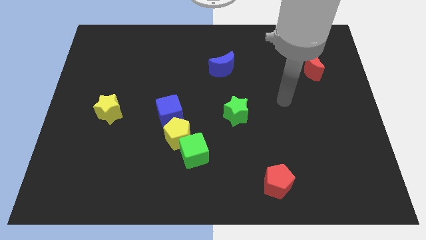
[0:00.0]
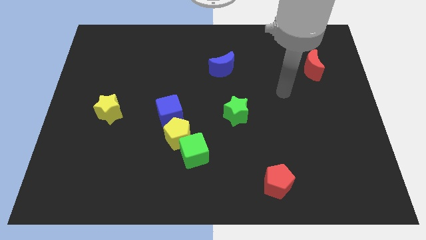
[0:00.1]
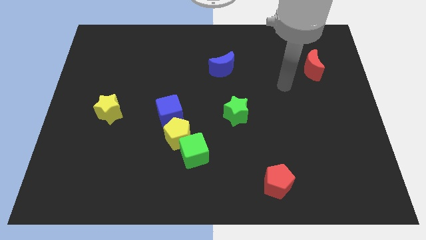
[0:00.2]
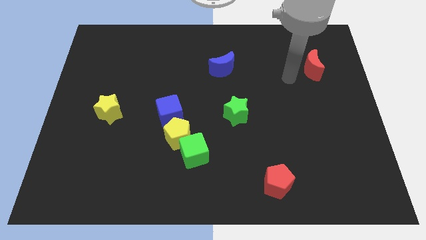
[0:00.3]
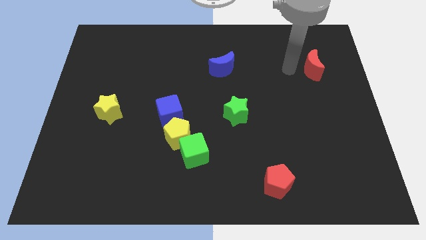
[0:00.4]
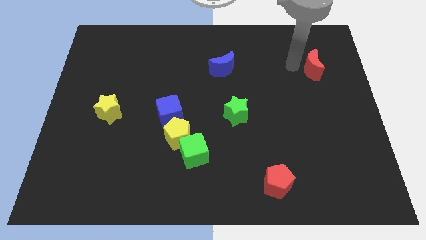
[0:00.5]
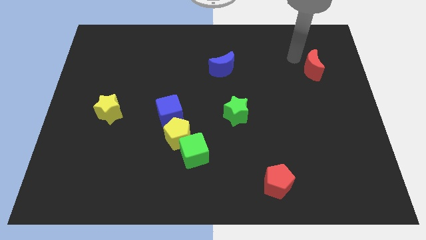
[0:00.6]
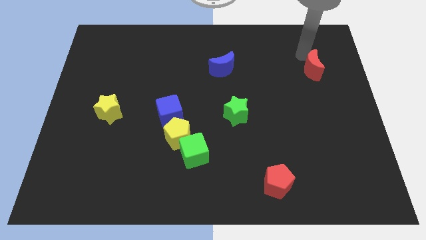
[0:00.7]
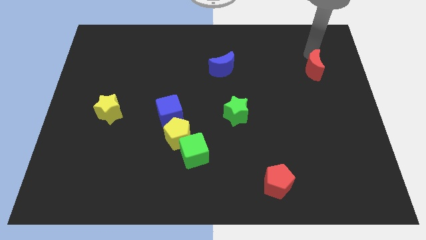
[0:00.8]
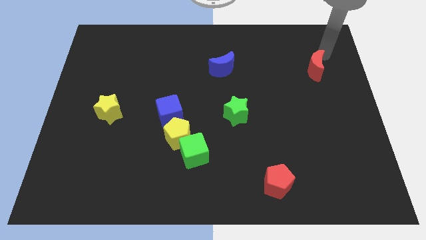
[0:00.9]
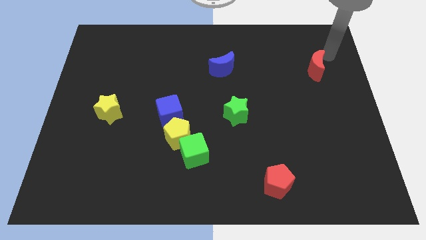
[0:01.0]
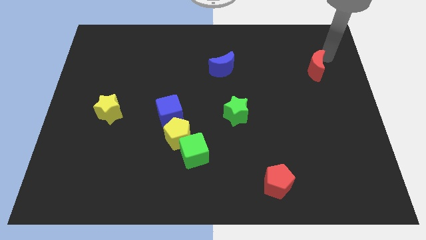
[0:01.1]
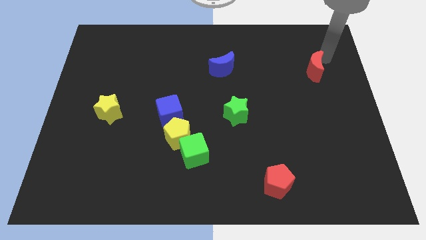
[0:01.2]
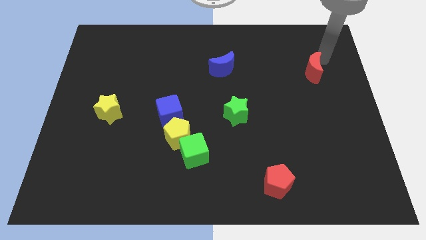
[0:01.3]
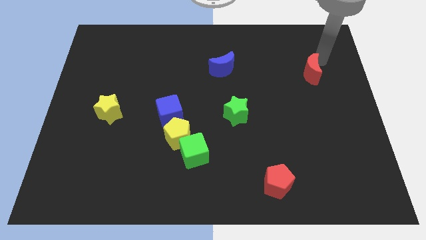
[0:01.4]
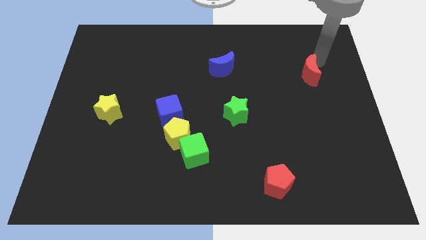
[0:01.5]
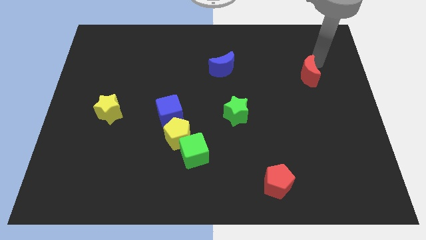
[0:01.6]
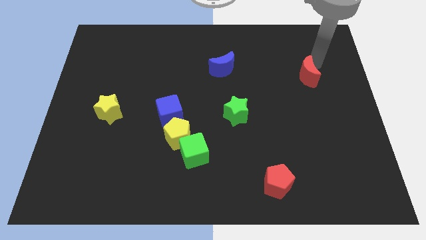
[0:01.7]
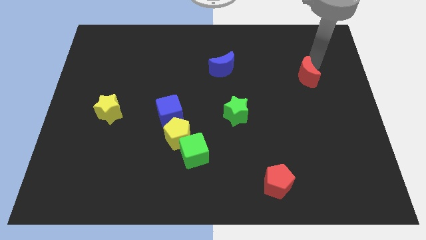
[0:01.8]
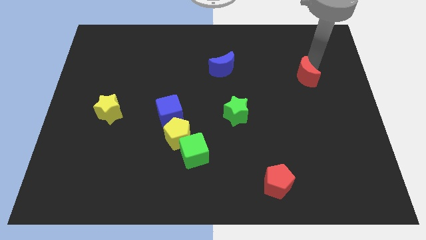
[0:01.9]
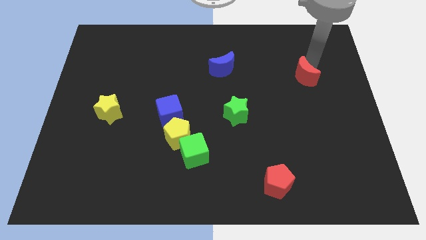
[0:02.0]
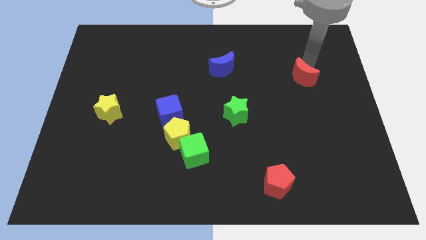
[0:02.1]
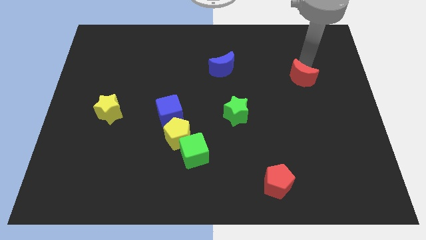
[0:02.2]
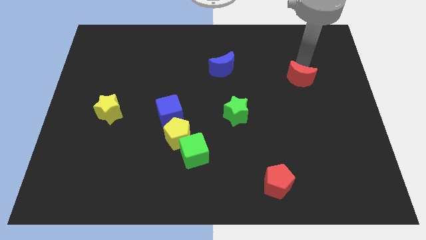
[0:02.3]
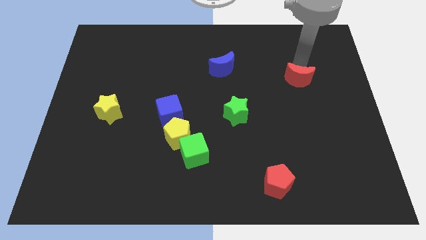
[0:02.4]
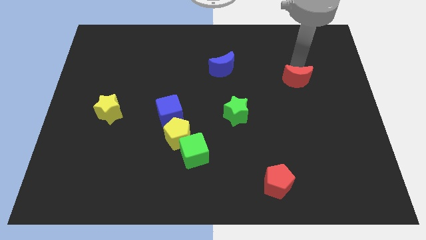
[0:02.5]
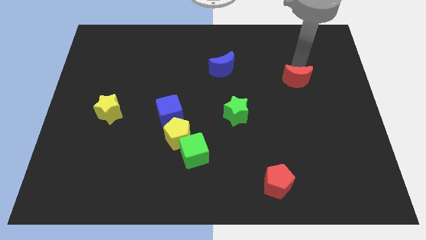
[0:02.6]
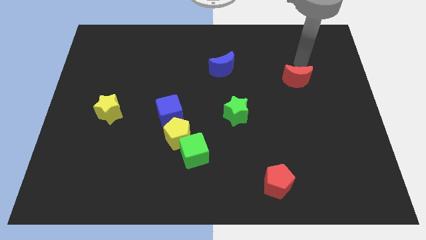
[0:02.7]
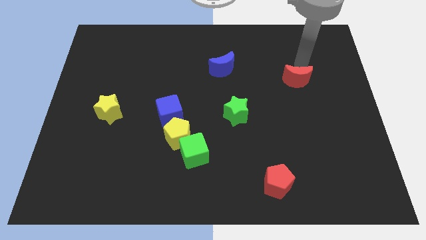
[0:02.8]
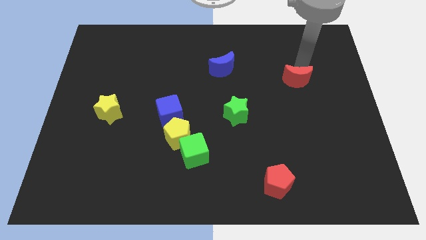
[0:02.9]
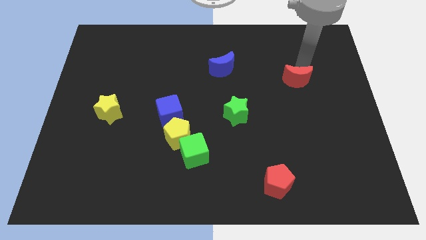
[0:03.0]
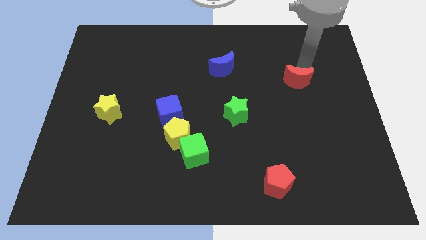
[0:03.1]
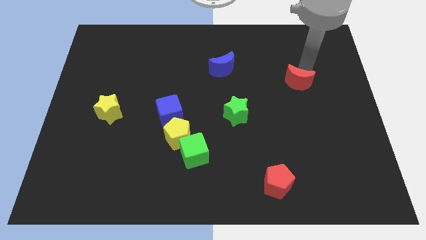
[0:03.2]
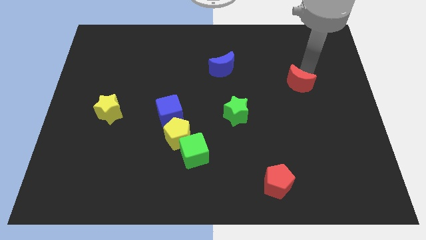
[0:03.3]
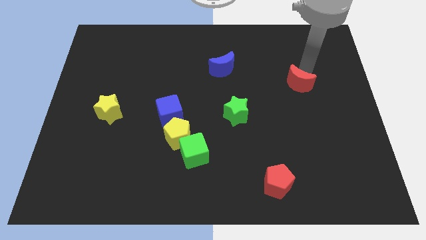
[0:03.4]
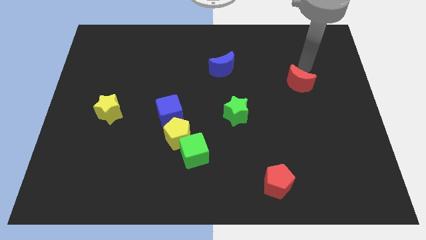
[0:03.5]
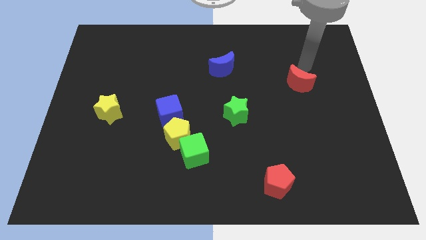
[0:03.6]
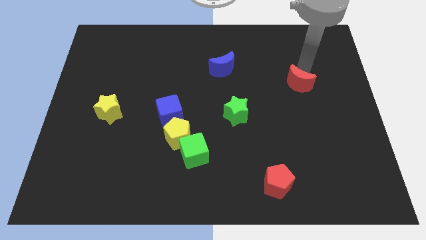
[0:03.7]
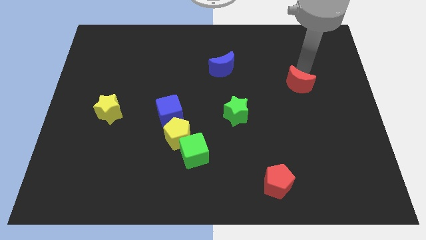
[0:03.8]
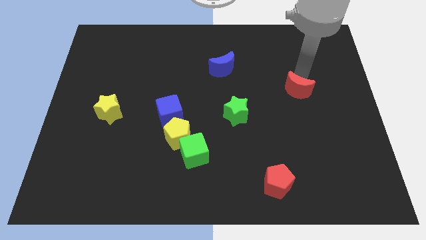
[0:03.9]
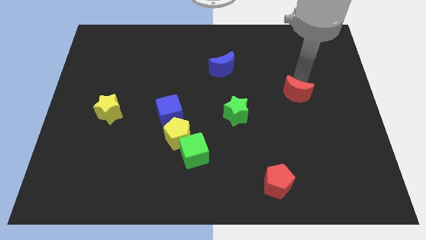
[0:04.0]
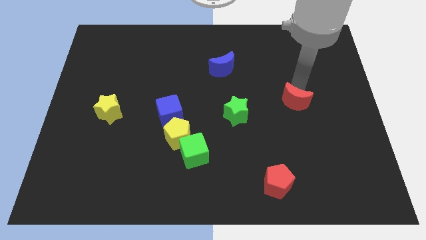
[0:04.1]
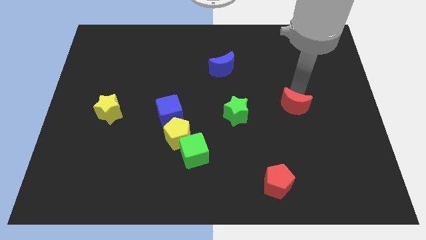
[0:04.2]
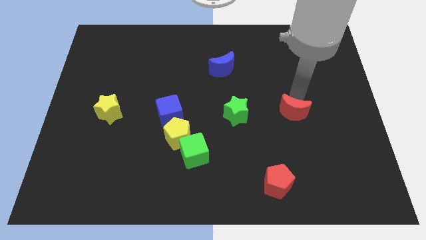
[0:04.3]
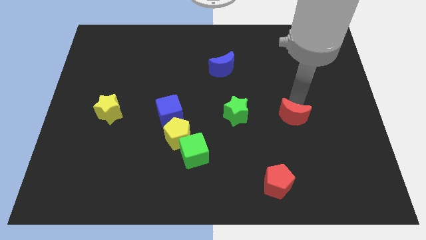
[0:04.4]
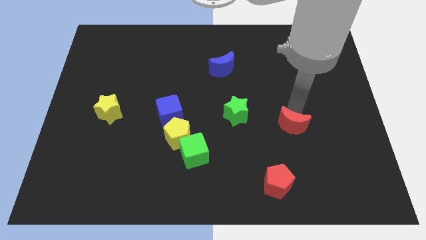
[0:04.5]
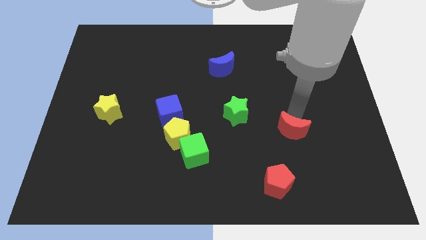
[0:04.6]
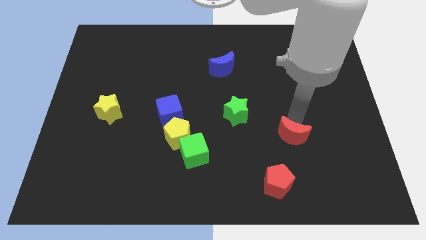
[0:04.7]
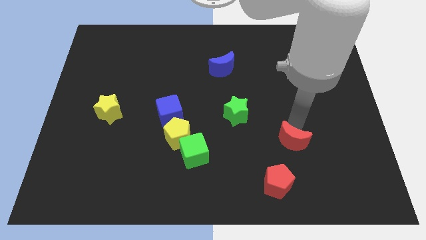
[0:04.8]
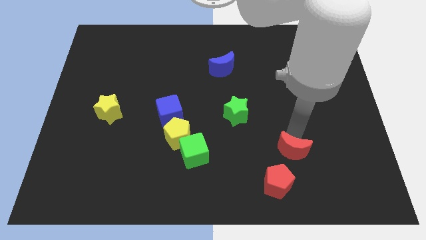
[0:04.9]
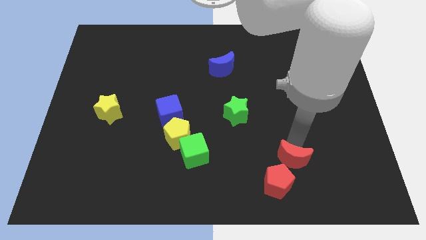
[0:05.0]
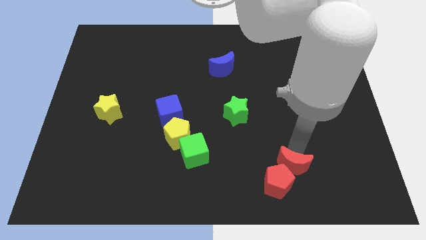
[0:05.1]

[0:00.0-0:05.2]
put the red moon towards the red pentagon

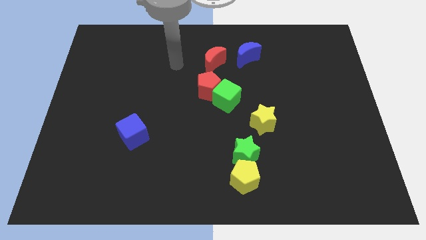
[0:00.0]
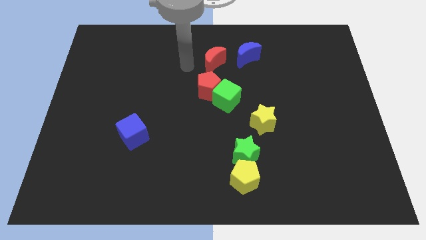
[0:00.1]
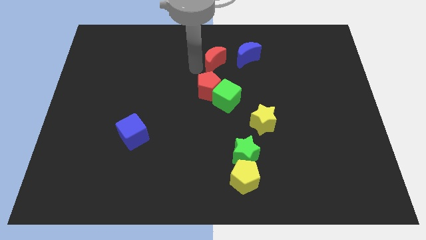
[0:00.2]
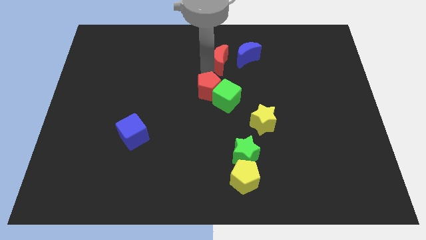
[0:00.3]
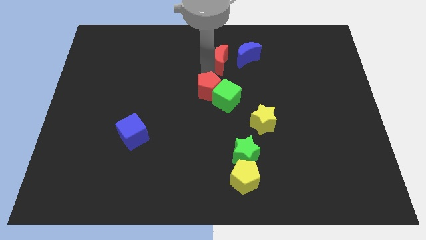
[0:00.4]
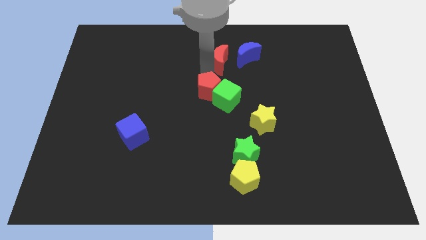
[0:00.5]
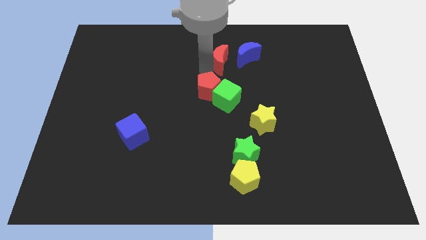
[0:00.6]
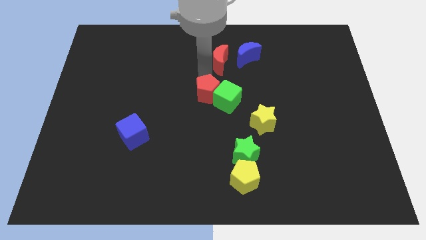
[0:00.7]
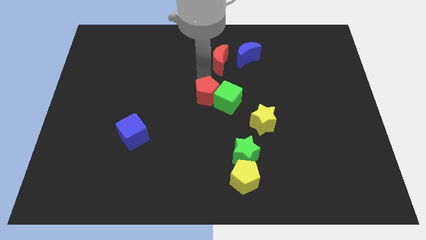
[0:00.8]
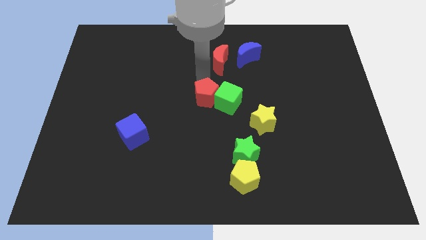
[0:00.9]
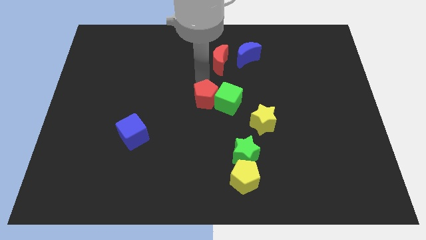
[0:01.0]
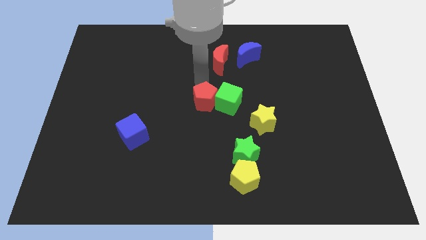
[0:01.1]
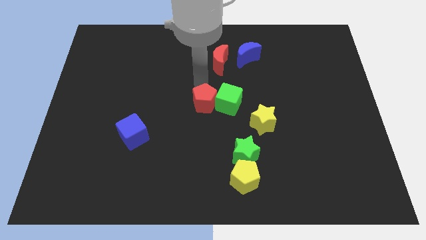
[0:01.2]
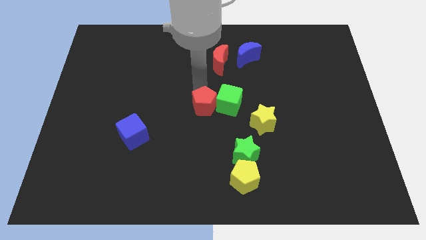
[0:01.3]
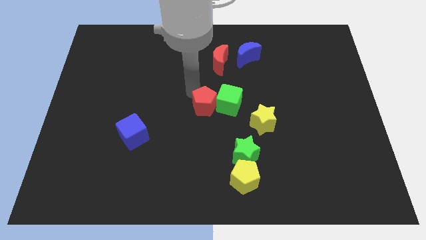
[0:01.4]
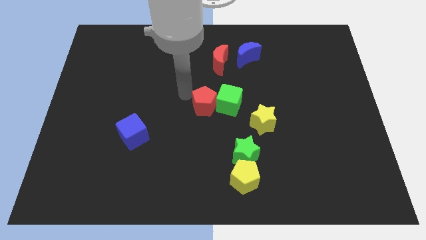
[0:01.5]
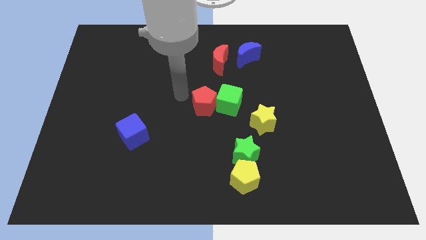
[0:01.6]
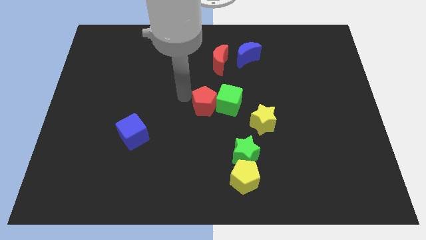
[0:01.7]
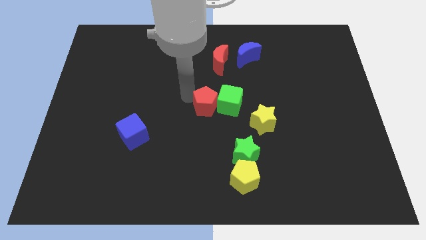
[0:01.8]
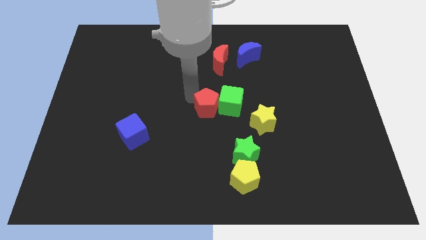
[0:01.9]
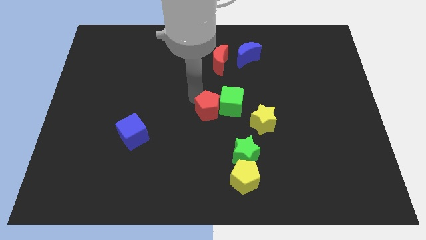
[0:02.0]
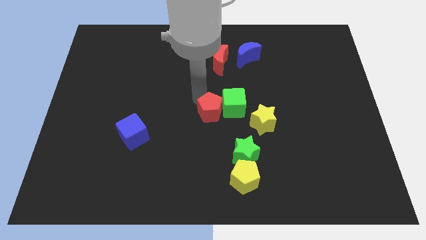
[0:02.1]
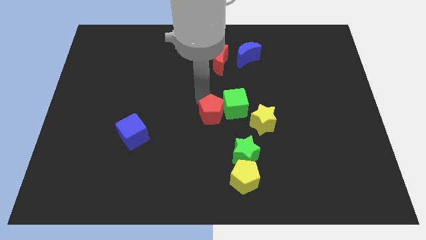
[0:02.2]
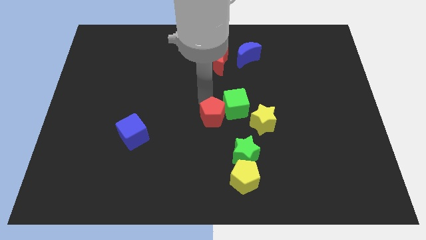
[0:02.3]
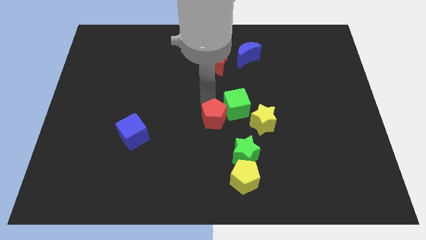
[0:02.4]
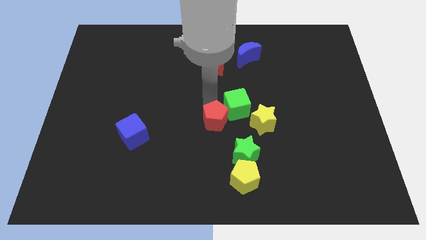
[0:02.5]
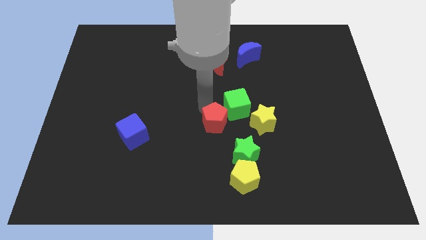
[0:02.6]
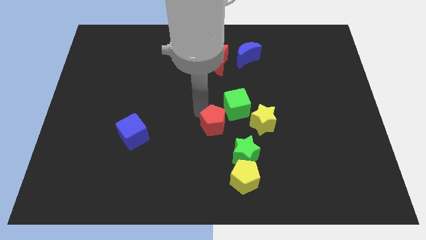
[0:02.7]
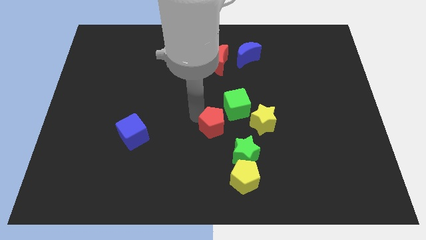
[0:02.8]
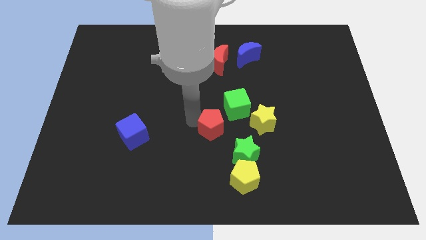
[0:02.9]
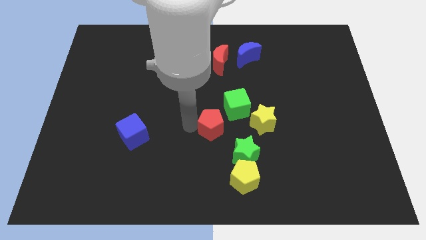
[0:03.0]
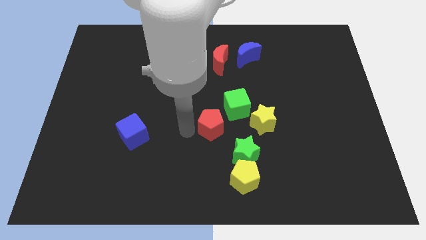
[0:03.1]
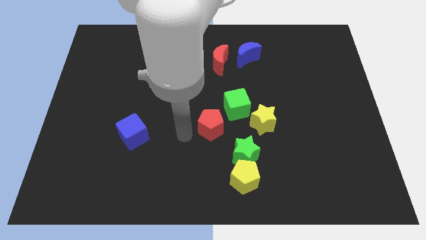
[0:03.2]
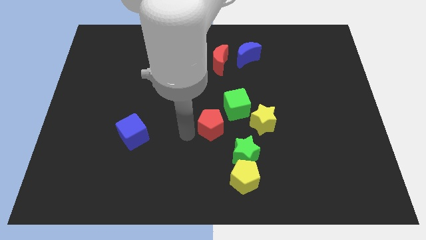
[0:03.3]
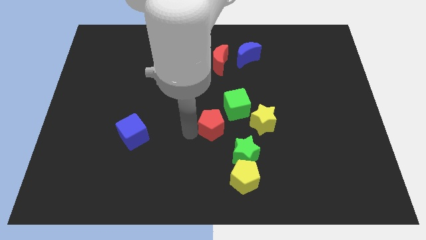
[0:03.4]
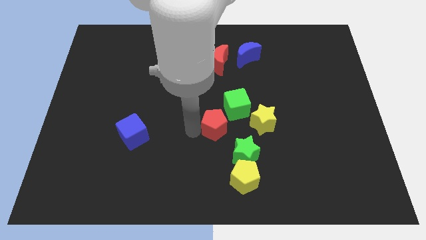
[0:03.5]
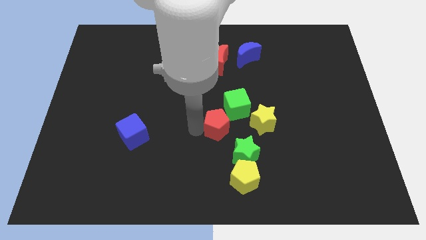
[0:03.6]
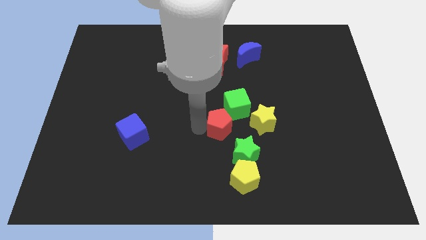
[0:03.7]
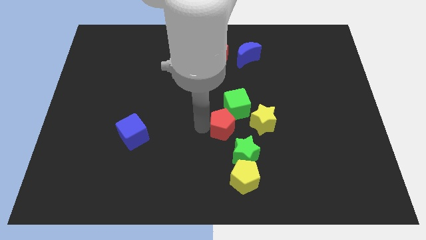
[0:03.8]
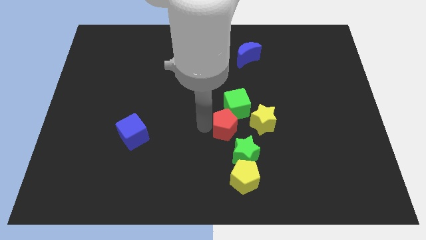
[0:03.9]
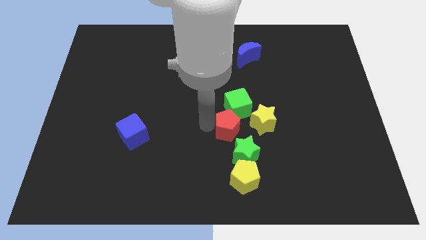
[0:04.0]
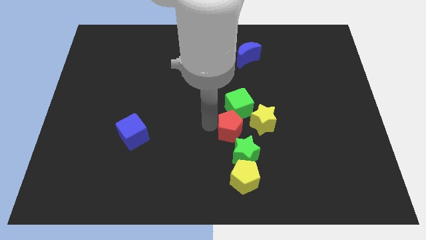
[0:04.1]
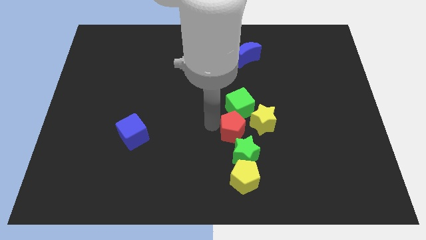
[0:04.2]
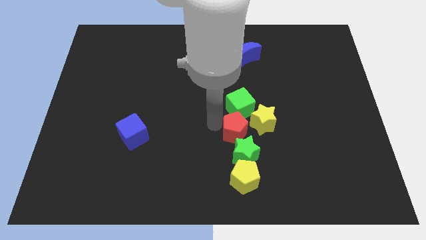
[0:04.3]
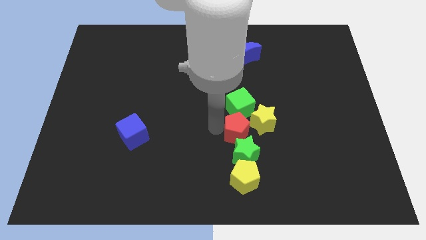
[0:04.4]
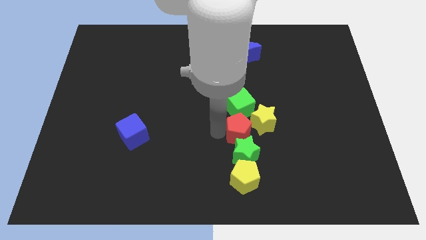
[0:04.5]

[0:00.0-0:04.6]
move the red pentagon towards the yellow star
